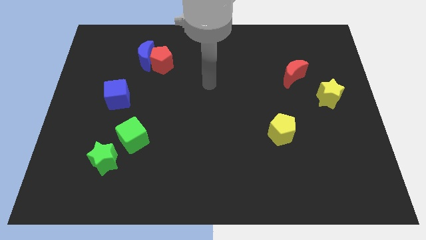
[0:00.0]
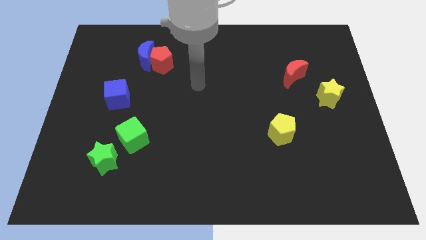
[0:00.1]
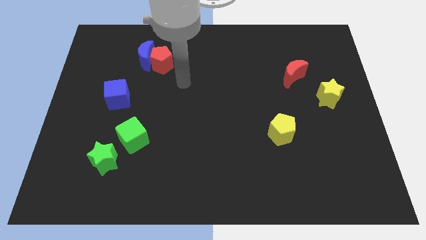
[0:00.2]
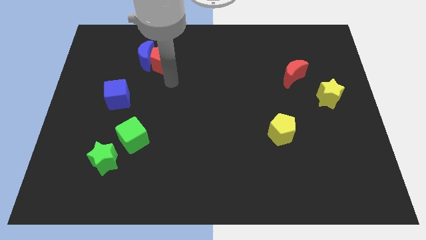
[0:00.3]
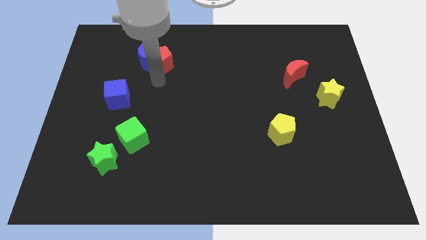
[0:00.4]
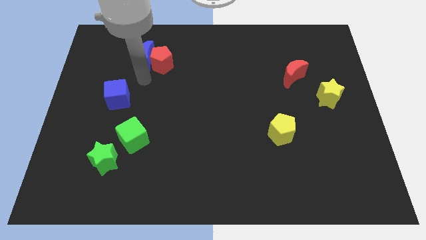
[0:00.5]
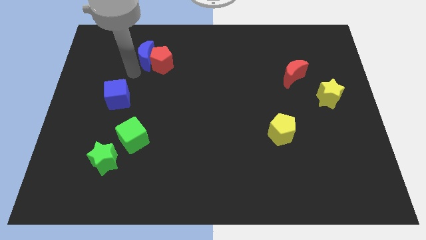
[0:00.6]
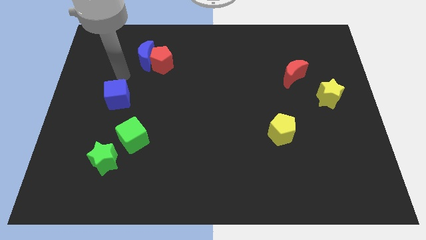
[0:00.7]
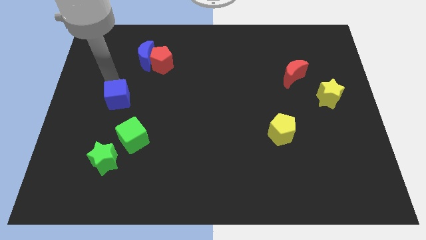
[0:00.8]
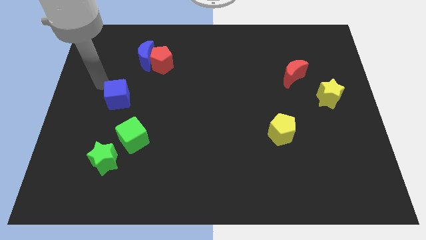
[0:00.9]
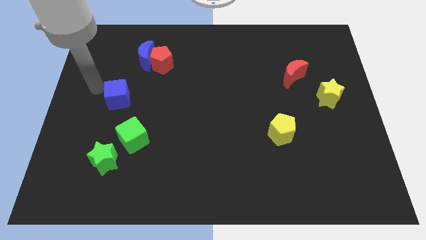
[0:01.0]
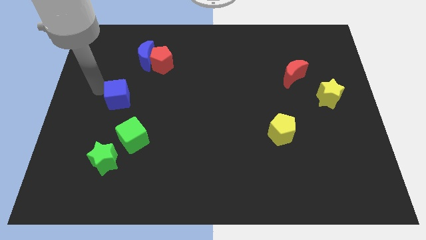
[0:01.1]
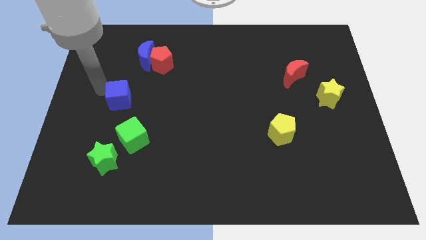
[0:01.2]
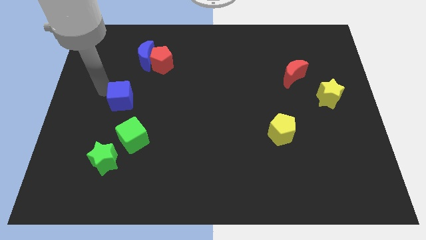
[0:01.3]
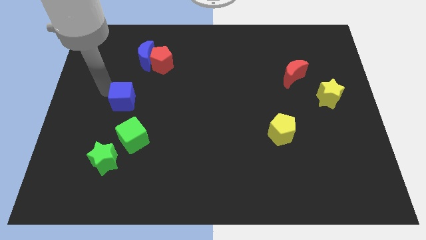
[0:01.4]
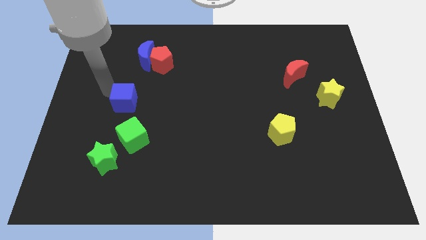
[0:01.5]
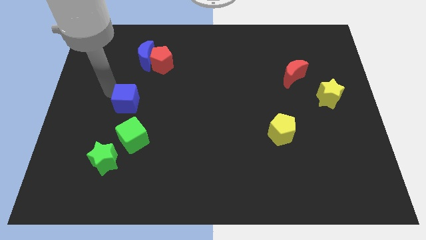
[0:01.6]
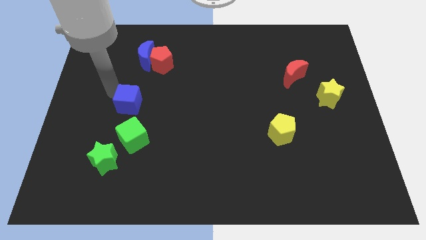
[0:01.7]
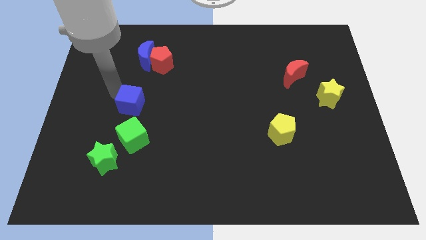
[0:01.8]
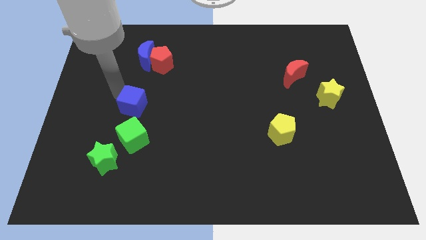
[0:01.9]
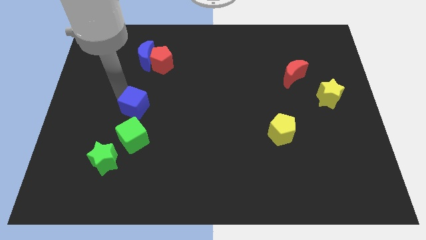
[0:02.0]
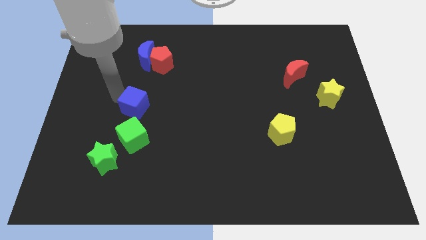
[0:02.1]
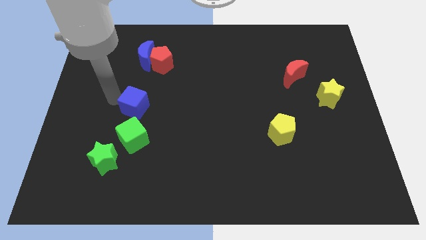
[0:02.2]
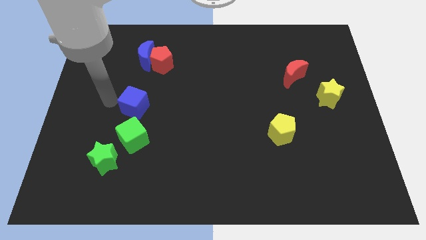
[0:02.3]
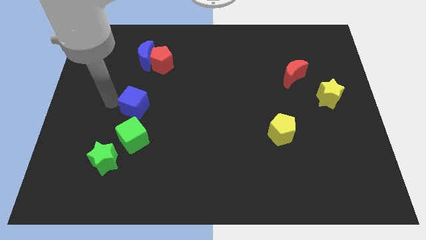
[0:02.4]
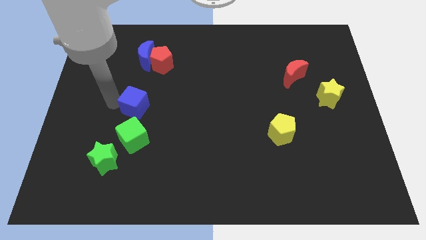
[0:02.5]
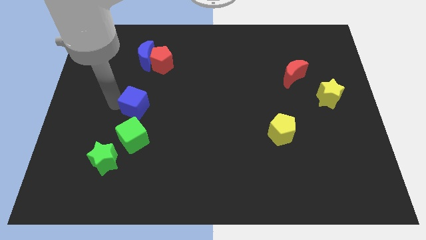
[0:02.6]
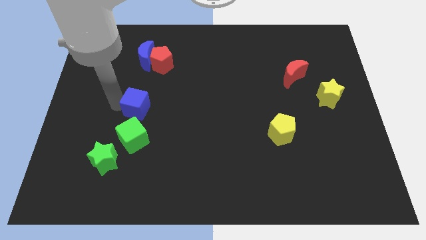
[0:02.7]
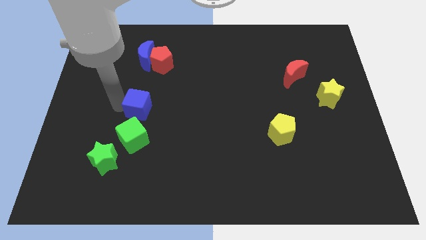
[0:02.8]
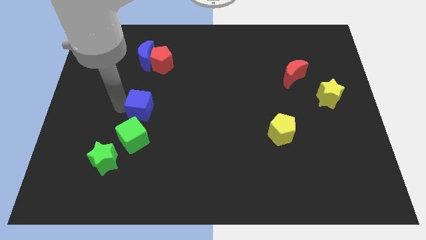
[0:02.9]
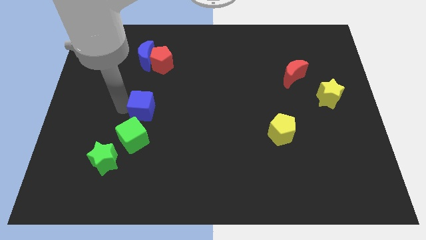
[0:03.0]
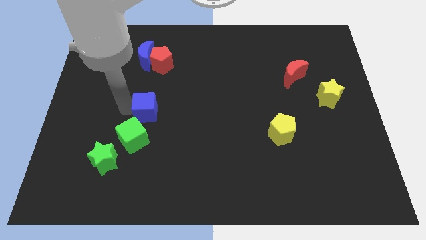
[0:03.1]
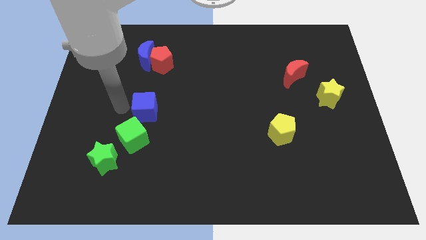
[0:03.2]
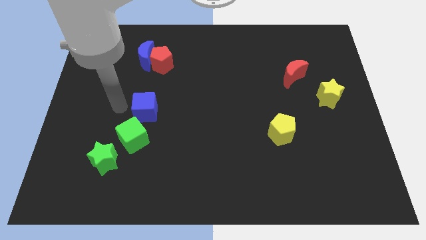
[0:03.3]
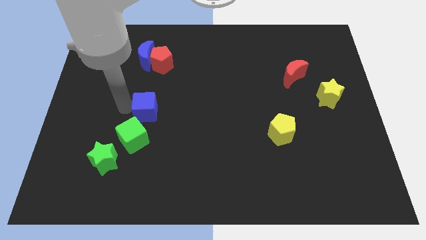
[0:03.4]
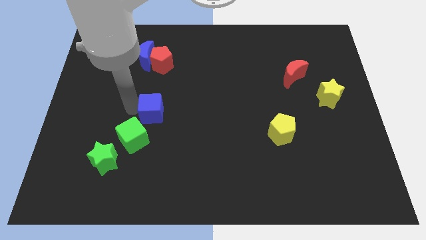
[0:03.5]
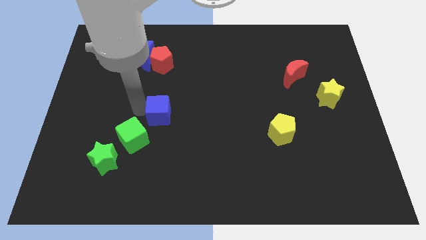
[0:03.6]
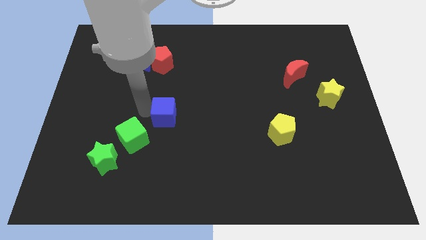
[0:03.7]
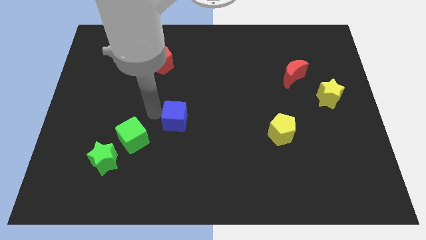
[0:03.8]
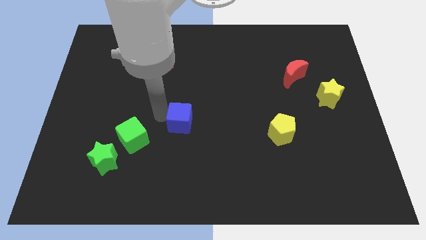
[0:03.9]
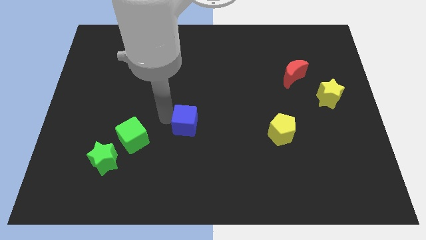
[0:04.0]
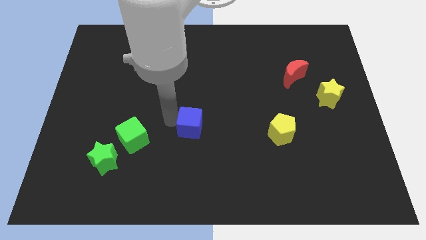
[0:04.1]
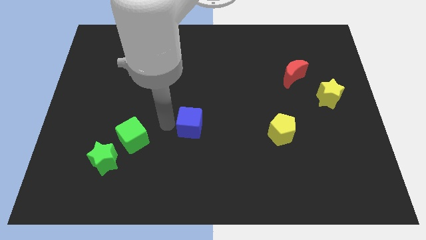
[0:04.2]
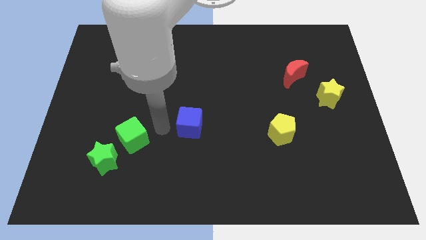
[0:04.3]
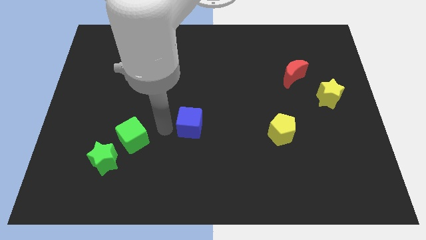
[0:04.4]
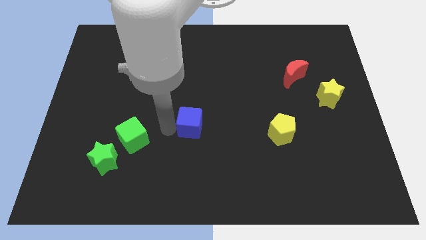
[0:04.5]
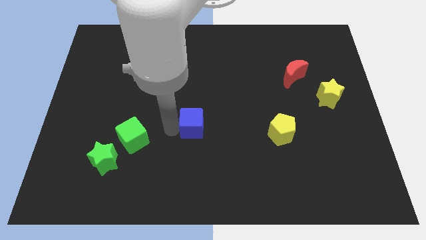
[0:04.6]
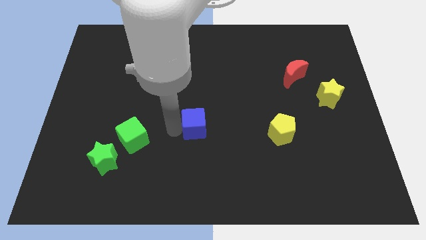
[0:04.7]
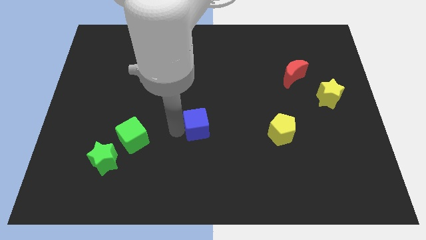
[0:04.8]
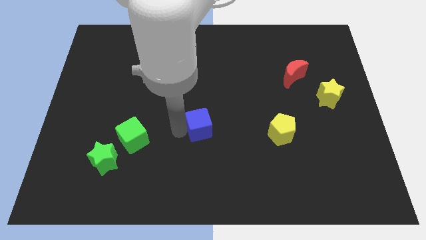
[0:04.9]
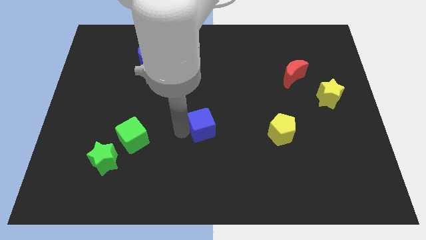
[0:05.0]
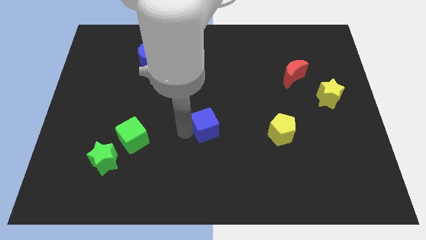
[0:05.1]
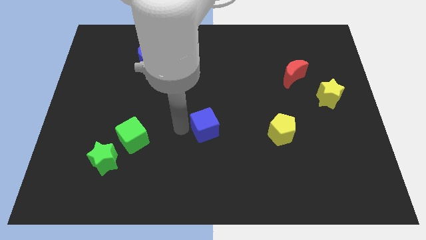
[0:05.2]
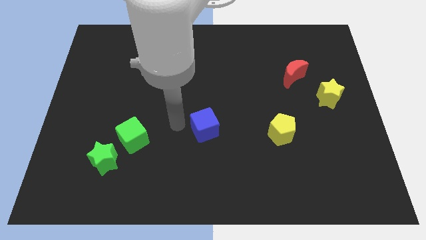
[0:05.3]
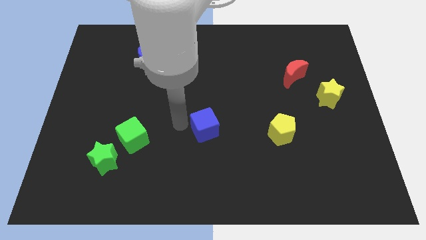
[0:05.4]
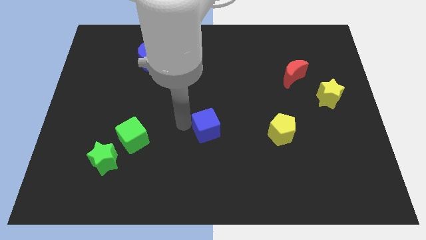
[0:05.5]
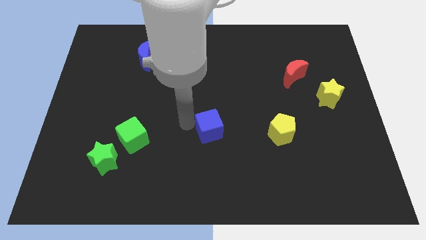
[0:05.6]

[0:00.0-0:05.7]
put the blue cube left of the yellow pentagon
